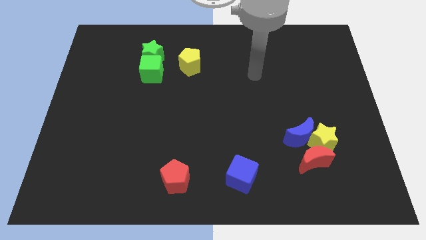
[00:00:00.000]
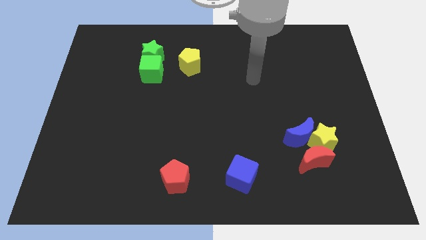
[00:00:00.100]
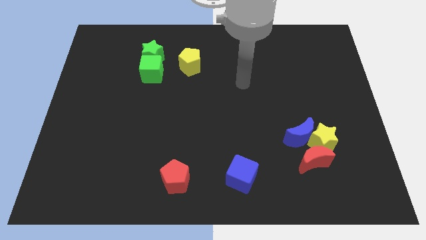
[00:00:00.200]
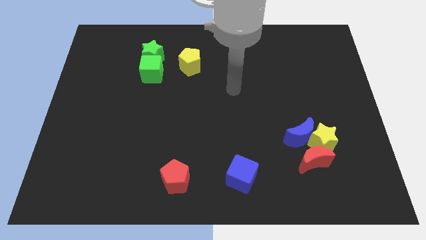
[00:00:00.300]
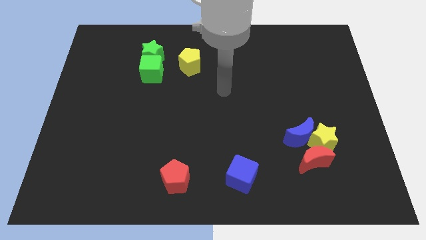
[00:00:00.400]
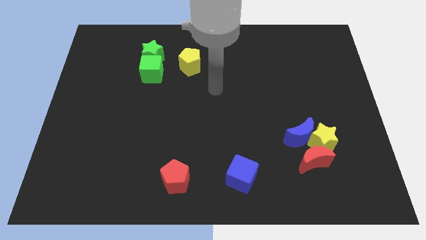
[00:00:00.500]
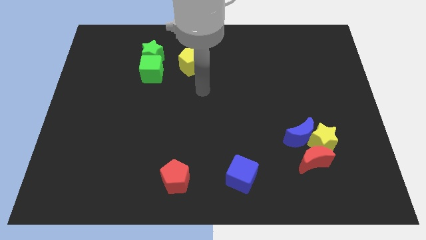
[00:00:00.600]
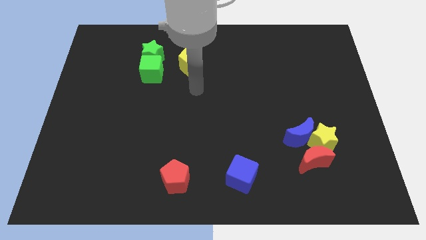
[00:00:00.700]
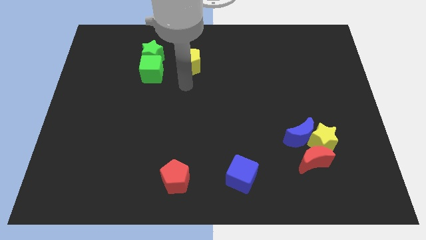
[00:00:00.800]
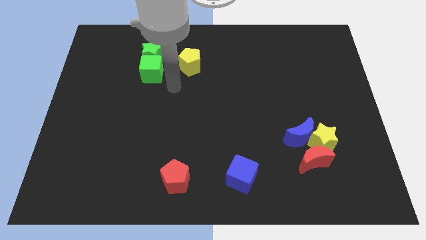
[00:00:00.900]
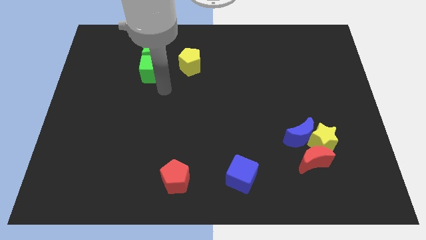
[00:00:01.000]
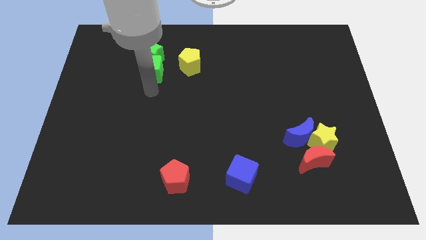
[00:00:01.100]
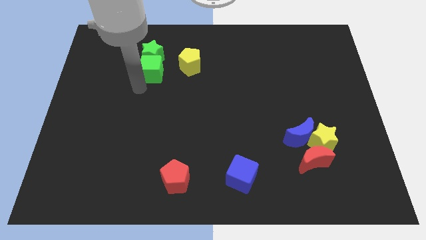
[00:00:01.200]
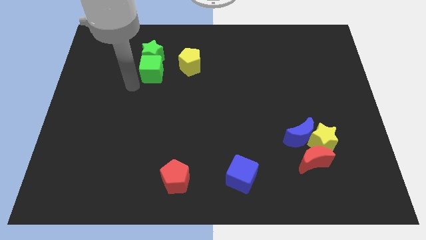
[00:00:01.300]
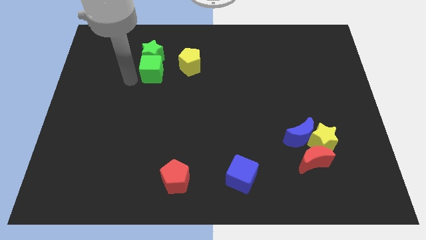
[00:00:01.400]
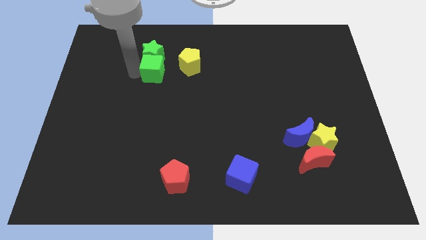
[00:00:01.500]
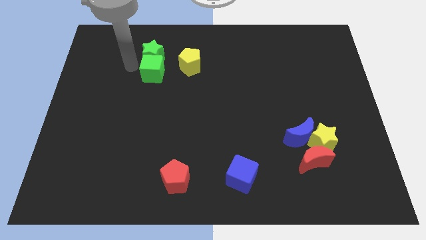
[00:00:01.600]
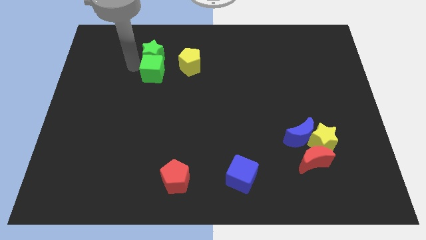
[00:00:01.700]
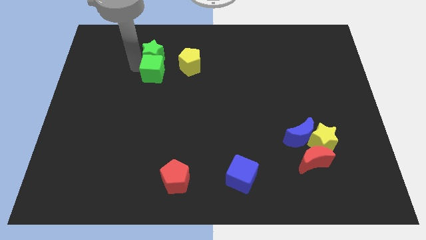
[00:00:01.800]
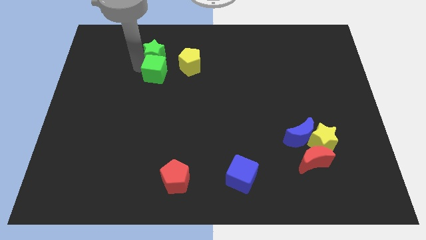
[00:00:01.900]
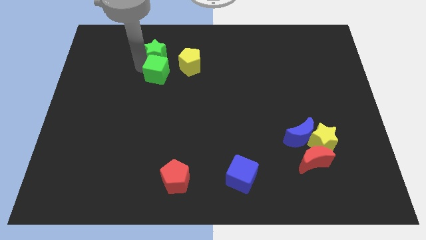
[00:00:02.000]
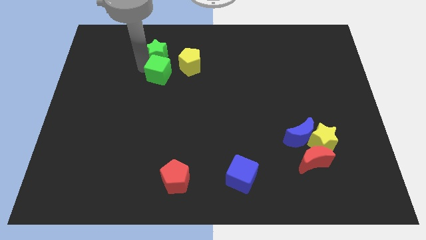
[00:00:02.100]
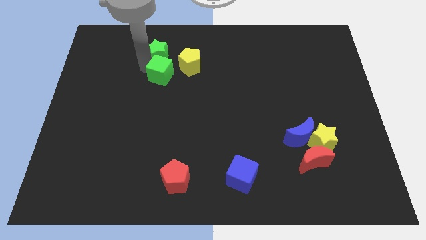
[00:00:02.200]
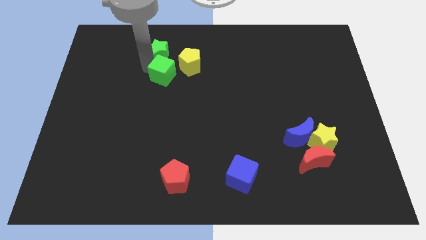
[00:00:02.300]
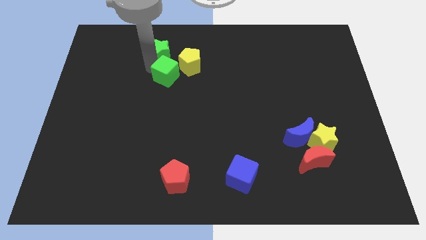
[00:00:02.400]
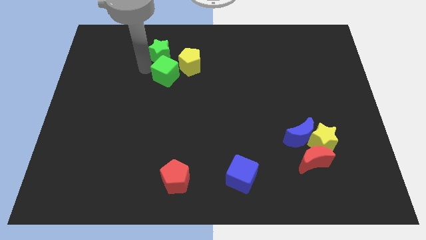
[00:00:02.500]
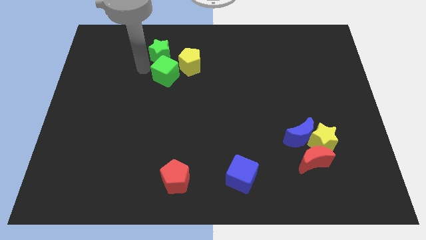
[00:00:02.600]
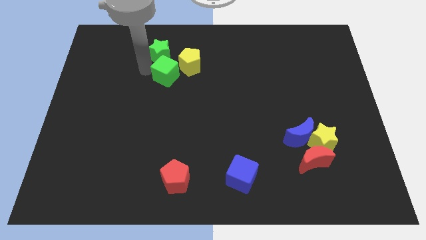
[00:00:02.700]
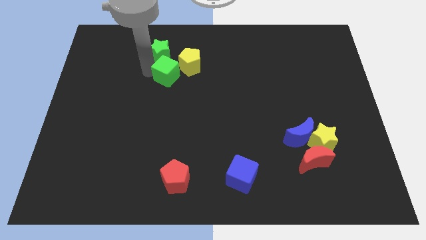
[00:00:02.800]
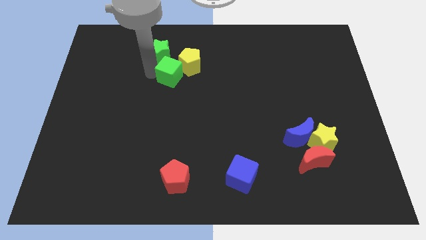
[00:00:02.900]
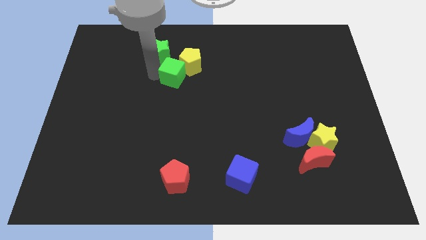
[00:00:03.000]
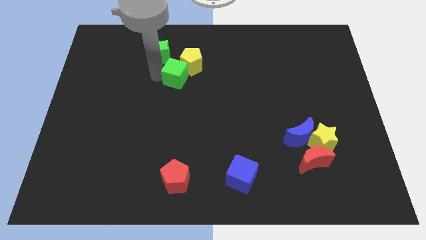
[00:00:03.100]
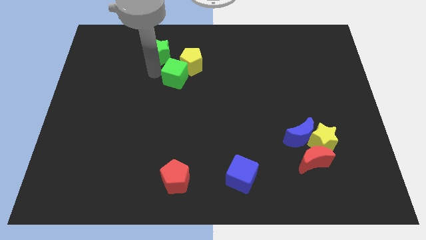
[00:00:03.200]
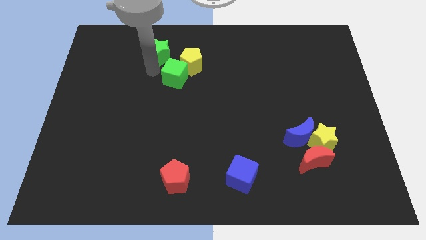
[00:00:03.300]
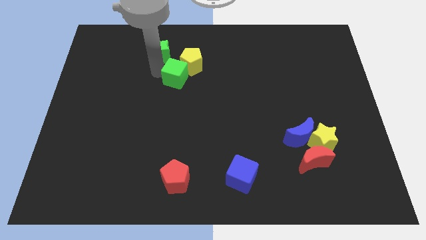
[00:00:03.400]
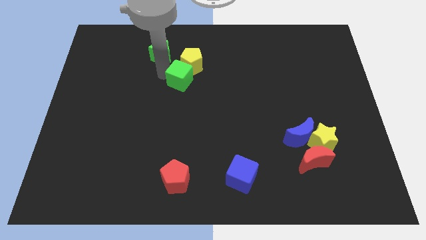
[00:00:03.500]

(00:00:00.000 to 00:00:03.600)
push the green cube right a little bit

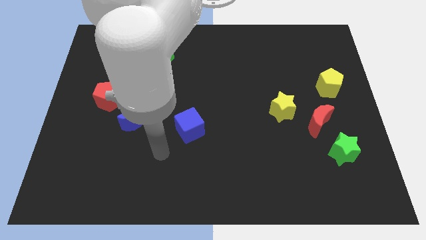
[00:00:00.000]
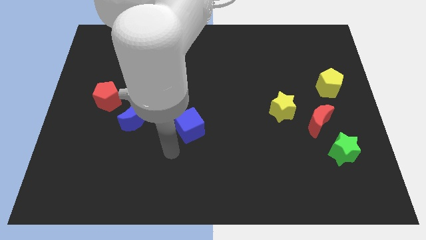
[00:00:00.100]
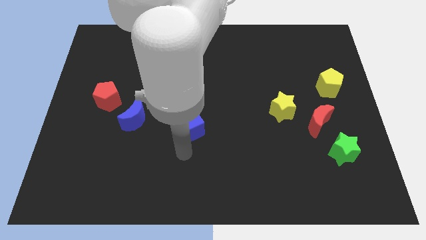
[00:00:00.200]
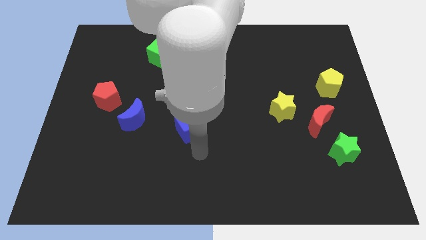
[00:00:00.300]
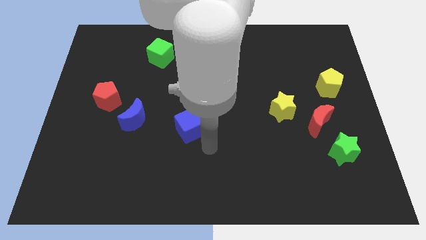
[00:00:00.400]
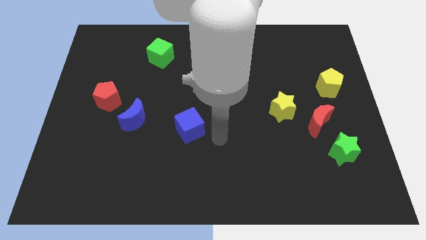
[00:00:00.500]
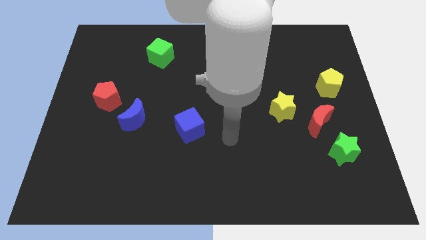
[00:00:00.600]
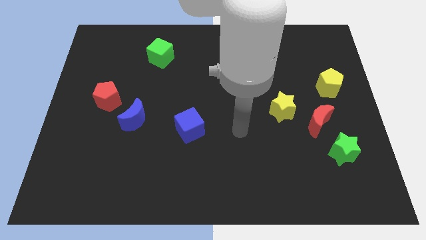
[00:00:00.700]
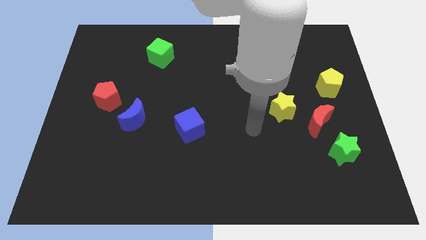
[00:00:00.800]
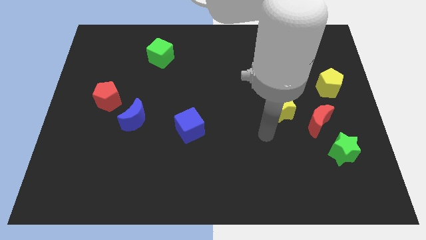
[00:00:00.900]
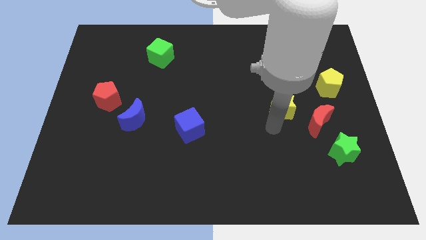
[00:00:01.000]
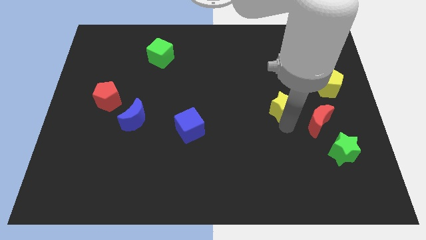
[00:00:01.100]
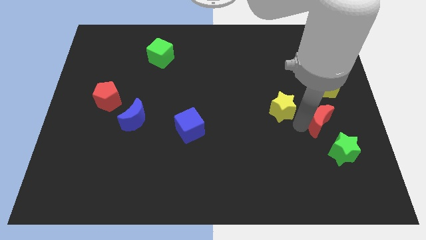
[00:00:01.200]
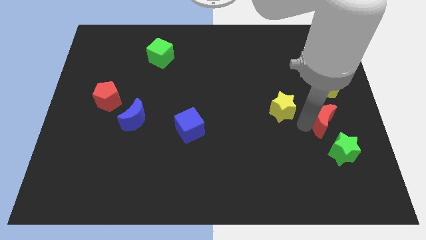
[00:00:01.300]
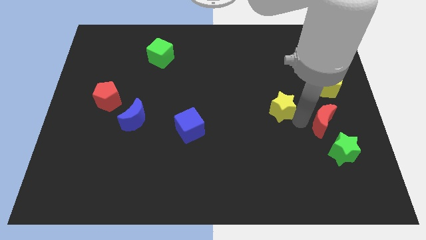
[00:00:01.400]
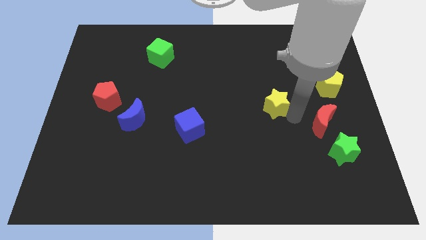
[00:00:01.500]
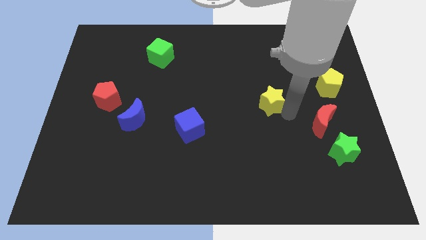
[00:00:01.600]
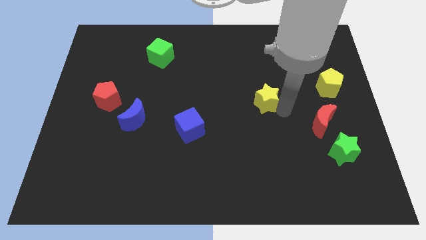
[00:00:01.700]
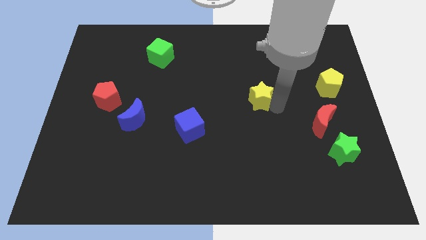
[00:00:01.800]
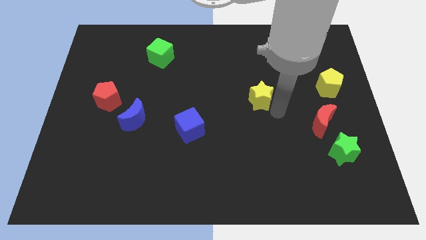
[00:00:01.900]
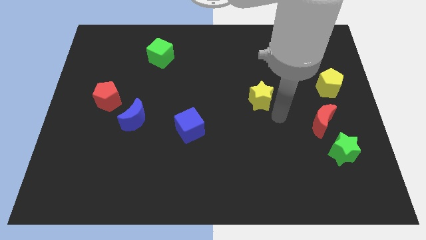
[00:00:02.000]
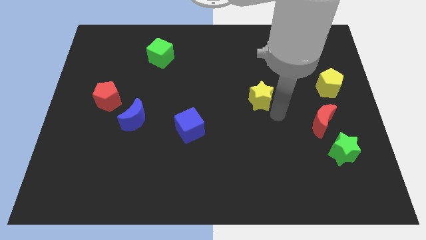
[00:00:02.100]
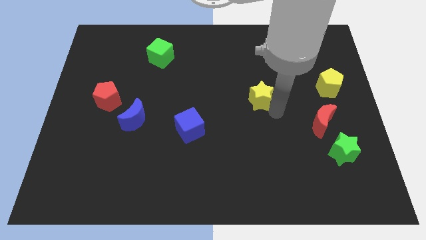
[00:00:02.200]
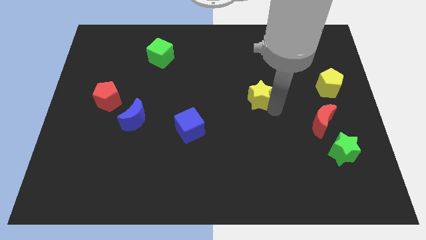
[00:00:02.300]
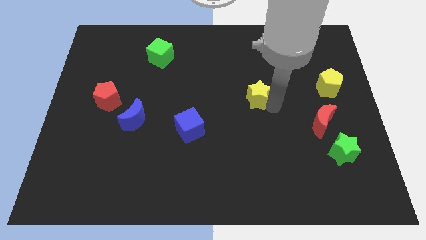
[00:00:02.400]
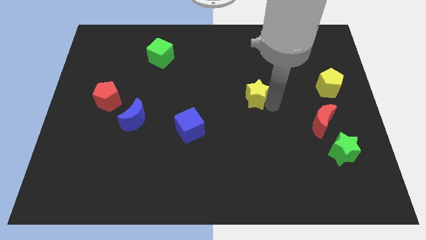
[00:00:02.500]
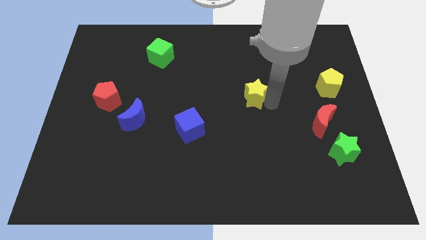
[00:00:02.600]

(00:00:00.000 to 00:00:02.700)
move the yellow star a little bit diagonally upwards and to the left

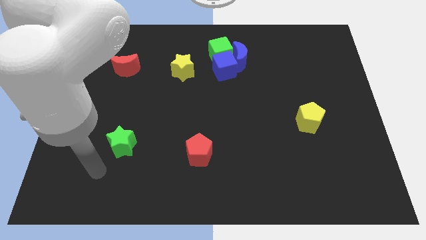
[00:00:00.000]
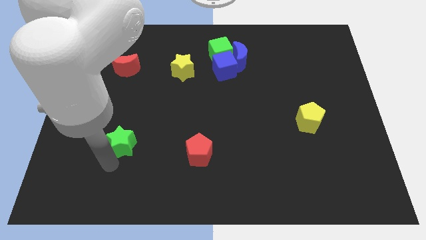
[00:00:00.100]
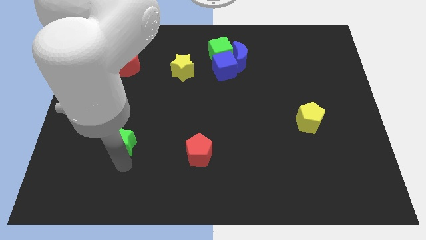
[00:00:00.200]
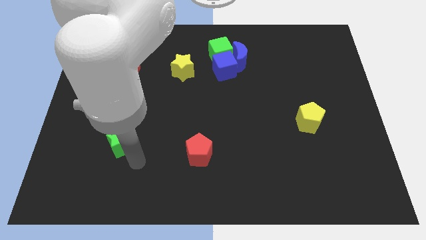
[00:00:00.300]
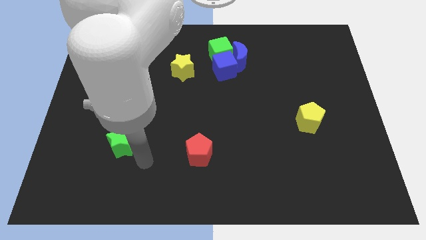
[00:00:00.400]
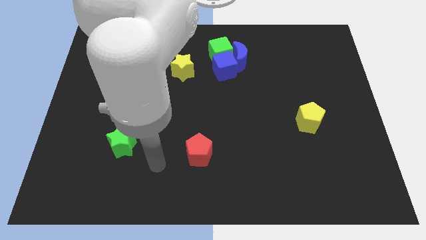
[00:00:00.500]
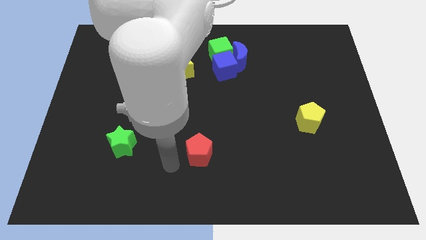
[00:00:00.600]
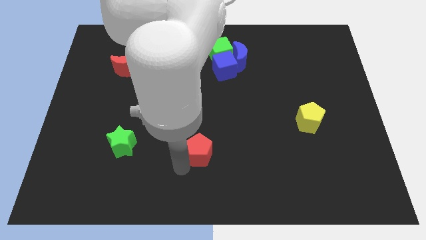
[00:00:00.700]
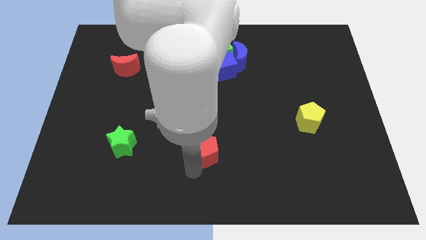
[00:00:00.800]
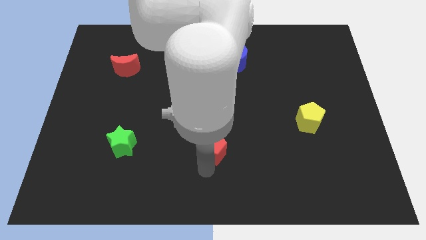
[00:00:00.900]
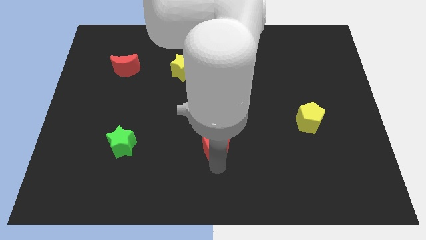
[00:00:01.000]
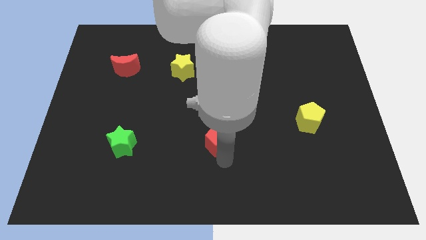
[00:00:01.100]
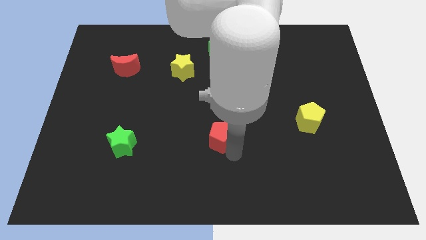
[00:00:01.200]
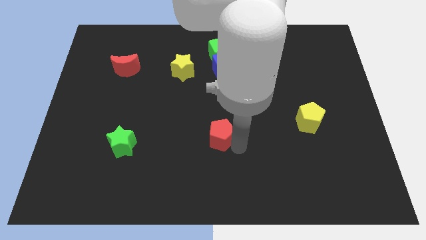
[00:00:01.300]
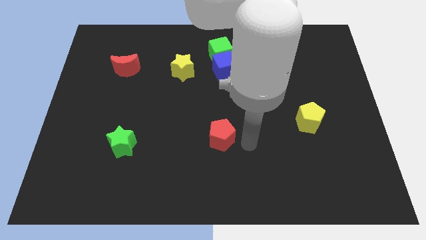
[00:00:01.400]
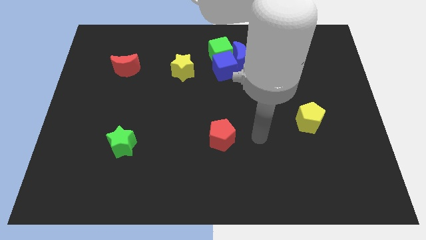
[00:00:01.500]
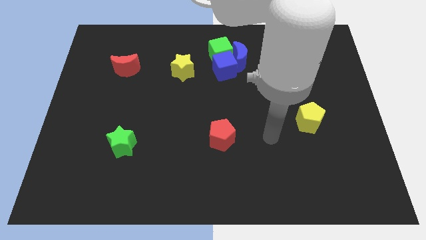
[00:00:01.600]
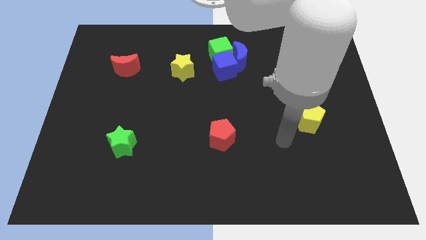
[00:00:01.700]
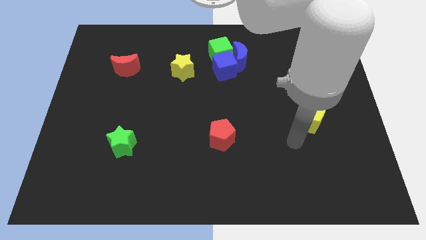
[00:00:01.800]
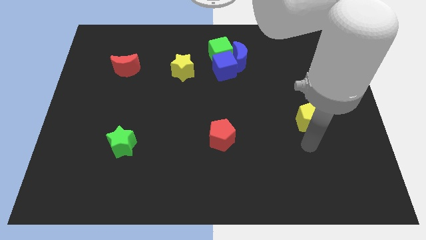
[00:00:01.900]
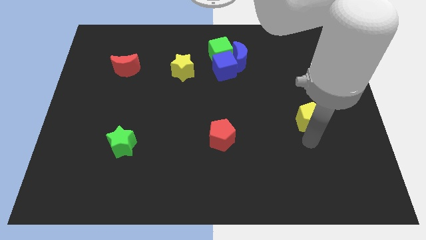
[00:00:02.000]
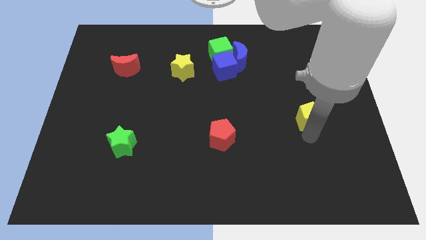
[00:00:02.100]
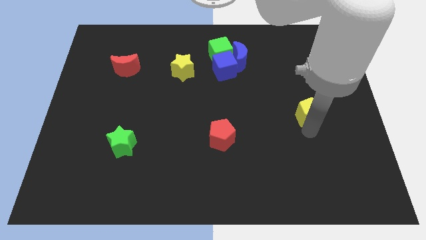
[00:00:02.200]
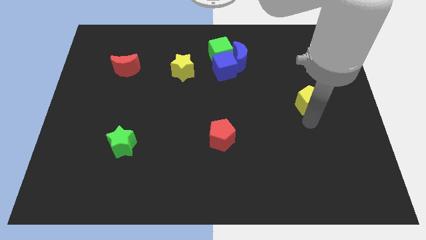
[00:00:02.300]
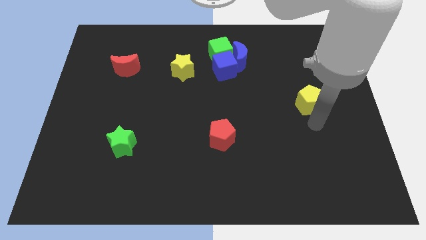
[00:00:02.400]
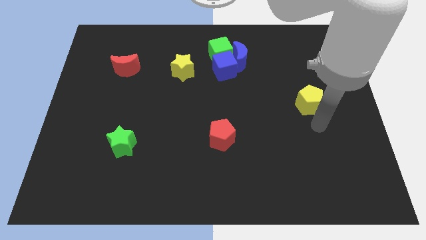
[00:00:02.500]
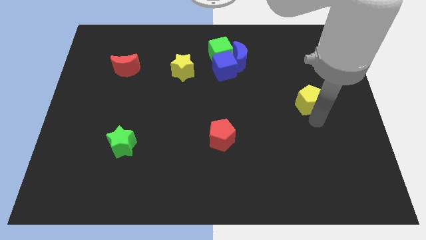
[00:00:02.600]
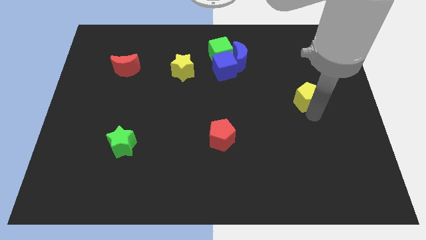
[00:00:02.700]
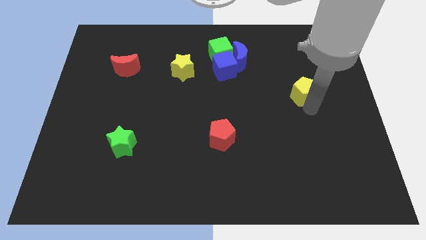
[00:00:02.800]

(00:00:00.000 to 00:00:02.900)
slightly push the yellow pentagon upwards
